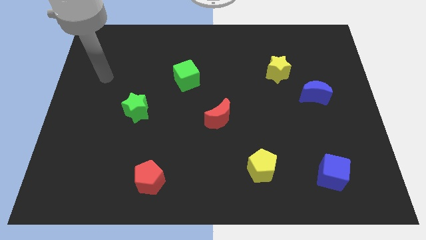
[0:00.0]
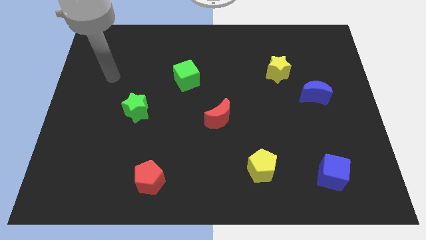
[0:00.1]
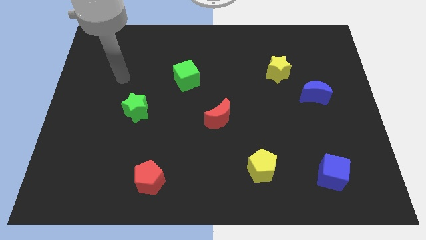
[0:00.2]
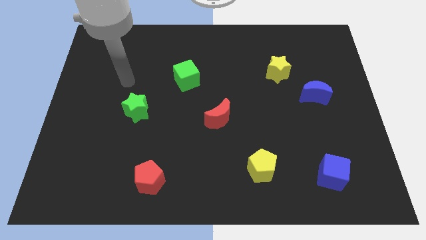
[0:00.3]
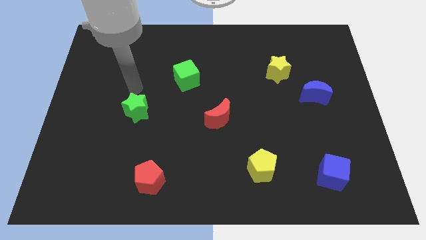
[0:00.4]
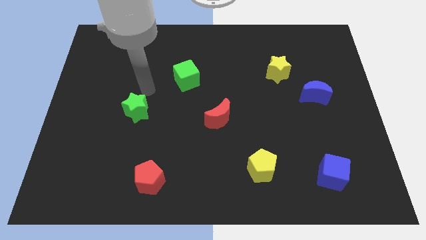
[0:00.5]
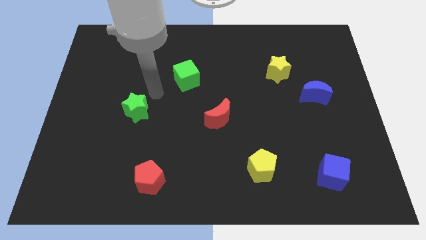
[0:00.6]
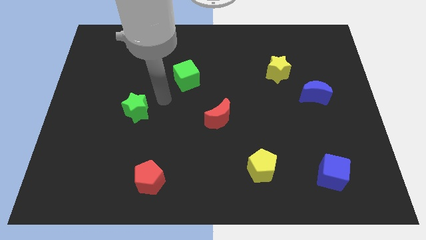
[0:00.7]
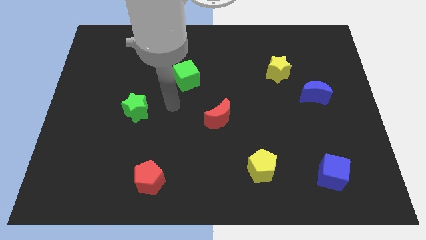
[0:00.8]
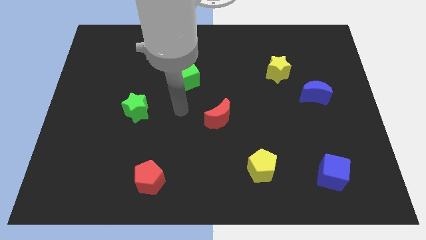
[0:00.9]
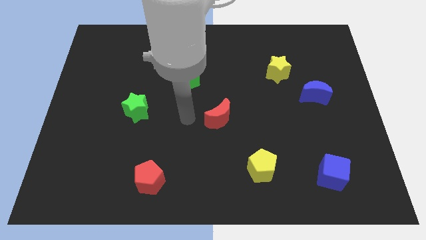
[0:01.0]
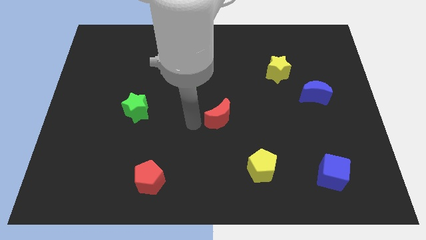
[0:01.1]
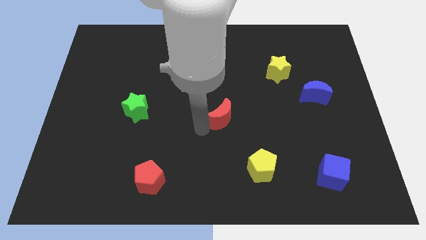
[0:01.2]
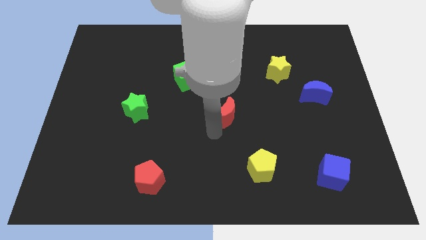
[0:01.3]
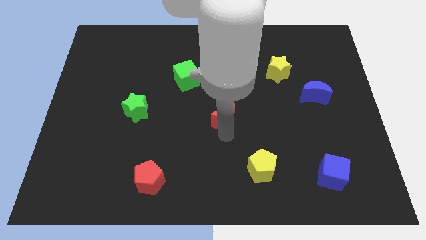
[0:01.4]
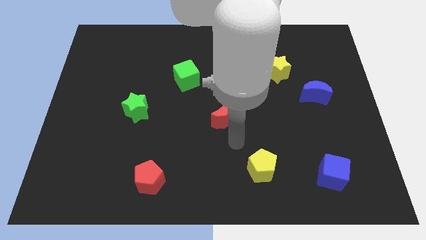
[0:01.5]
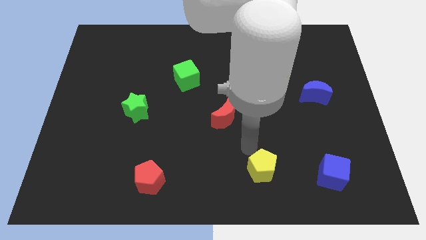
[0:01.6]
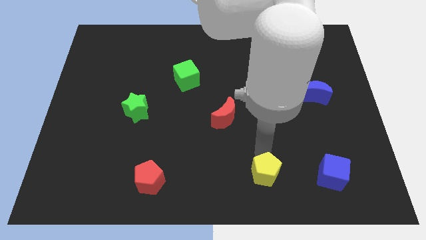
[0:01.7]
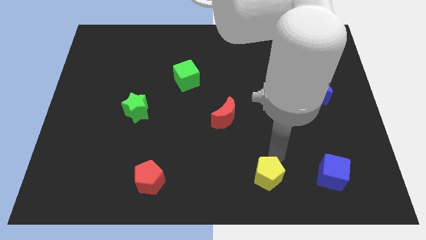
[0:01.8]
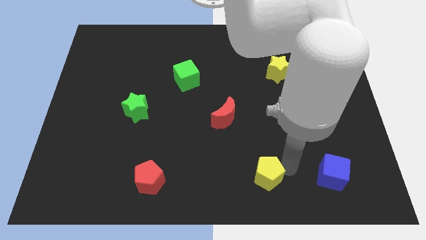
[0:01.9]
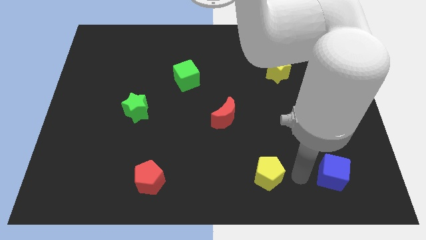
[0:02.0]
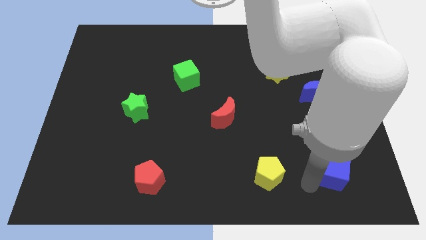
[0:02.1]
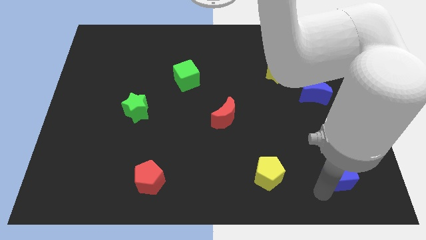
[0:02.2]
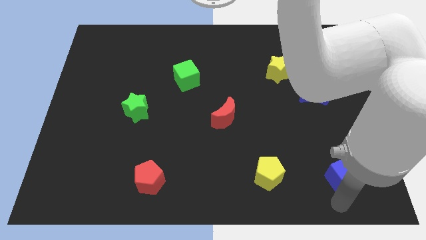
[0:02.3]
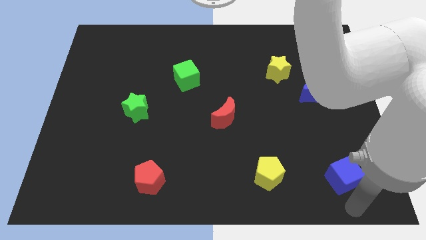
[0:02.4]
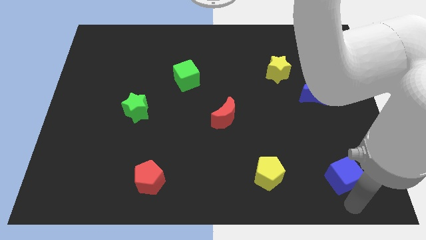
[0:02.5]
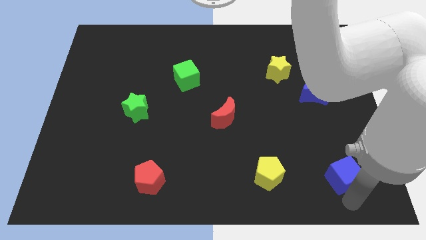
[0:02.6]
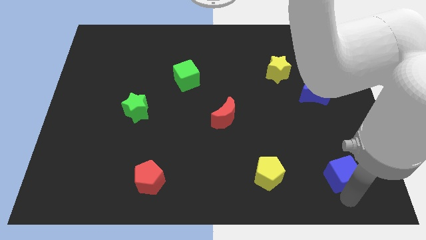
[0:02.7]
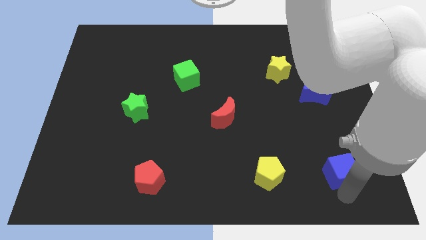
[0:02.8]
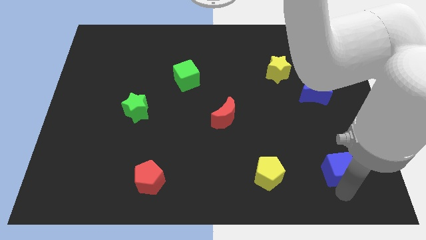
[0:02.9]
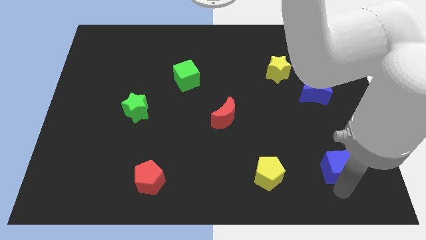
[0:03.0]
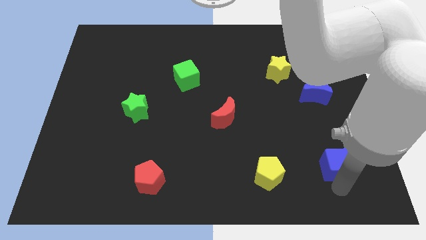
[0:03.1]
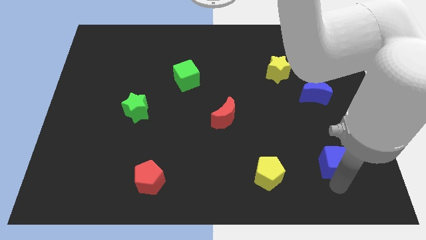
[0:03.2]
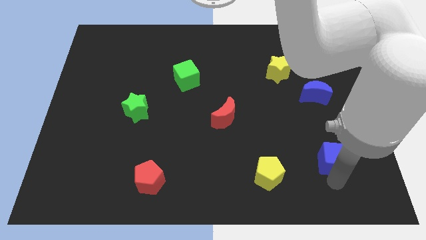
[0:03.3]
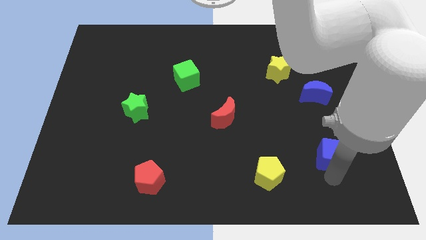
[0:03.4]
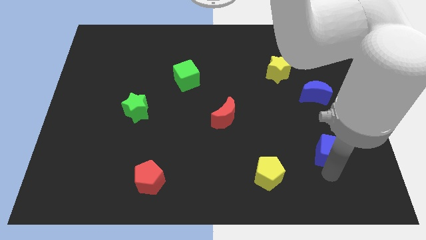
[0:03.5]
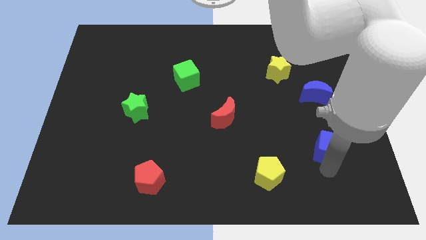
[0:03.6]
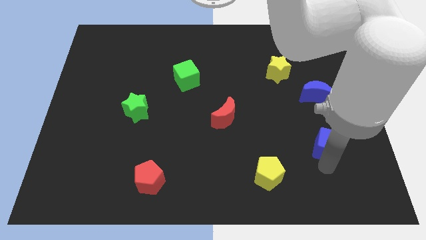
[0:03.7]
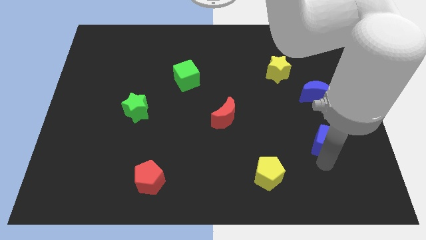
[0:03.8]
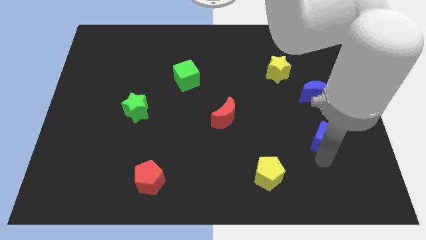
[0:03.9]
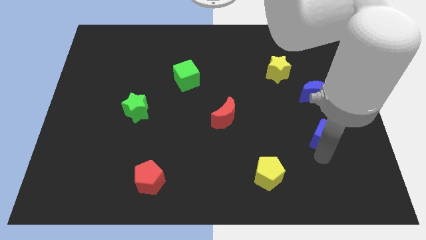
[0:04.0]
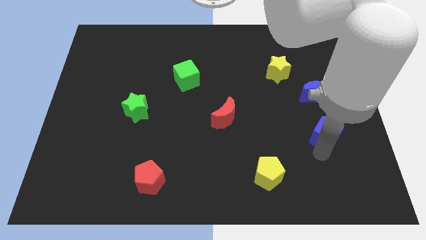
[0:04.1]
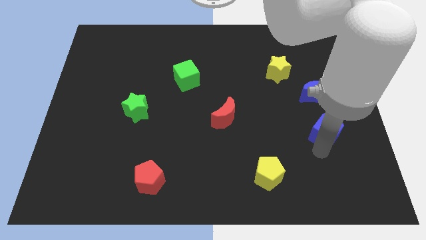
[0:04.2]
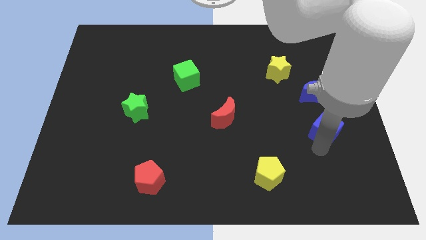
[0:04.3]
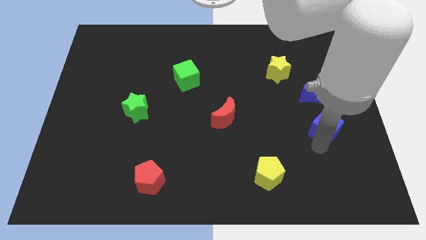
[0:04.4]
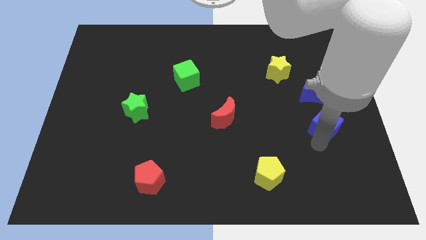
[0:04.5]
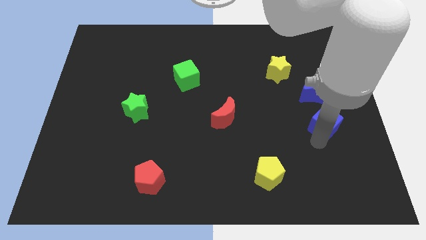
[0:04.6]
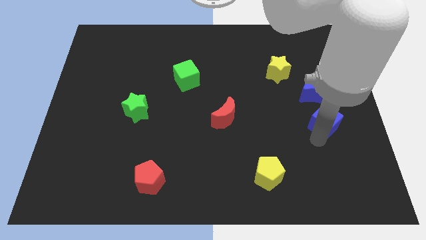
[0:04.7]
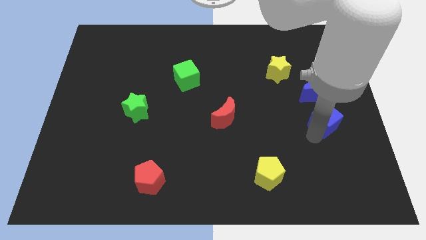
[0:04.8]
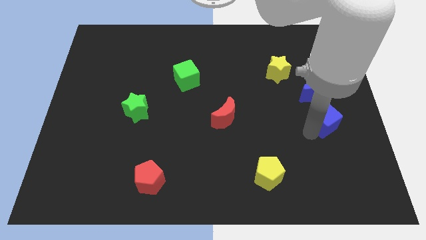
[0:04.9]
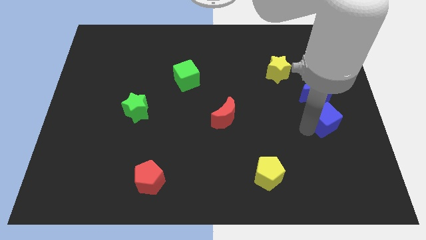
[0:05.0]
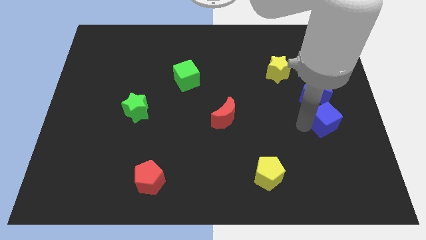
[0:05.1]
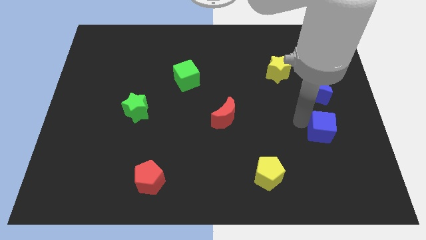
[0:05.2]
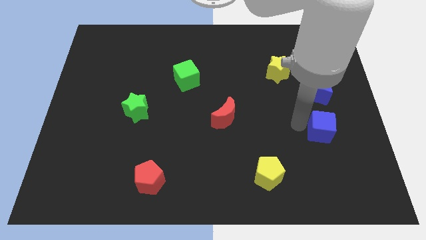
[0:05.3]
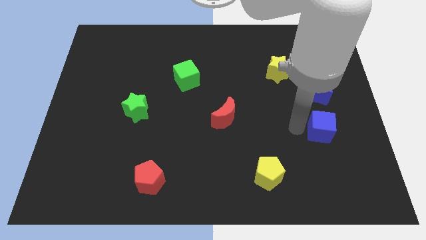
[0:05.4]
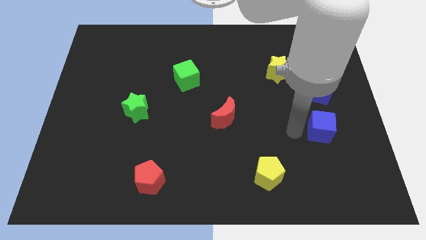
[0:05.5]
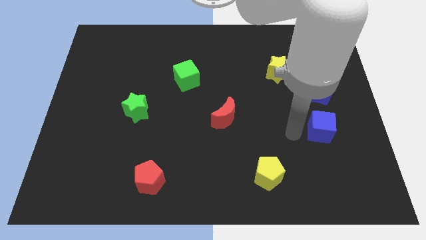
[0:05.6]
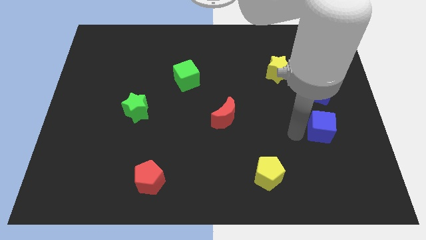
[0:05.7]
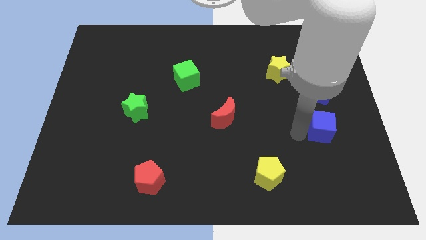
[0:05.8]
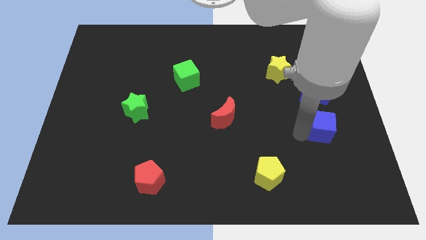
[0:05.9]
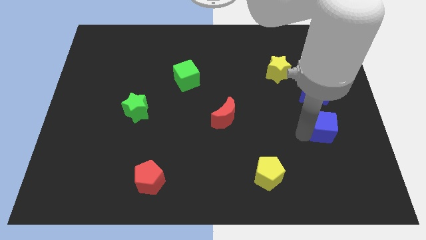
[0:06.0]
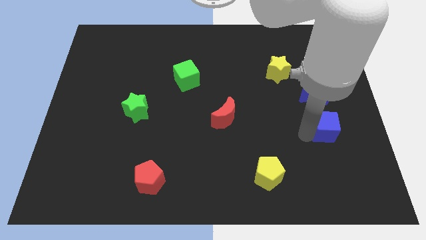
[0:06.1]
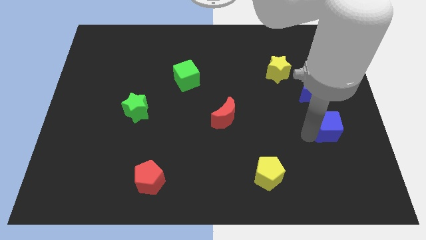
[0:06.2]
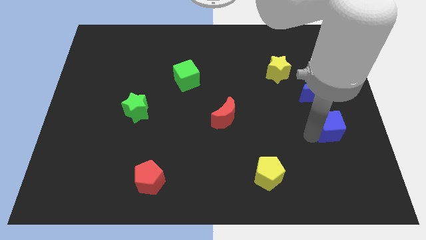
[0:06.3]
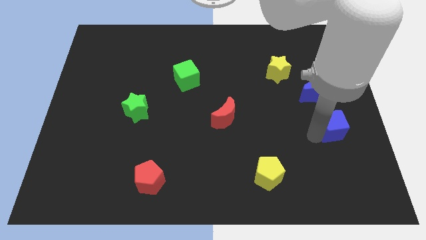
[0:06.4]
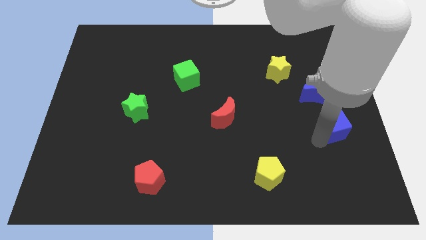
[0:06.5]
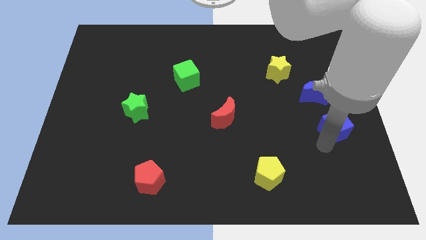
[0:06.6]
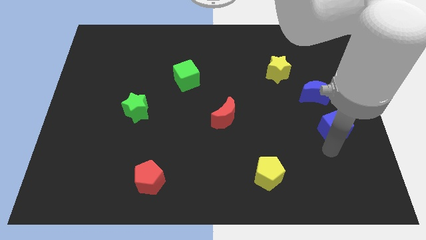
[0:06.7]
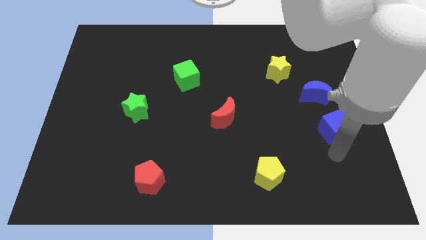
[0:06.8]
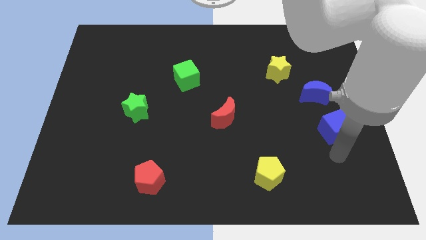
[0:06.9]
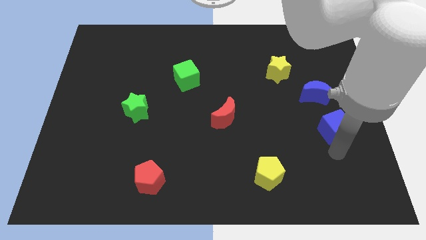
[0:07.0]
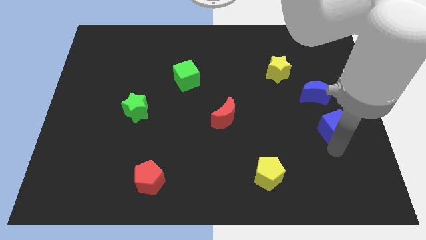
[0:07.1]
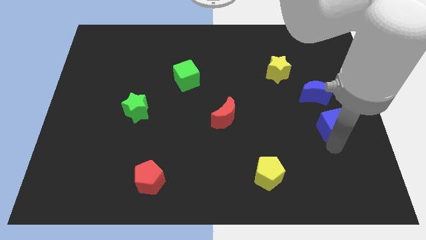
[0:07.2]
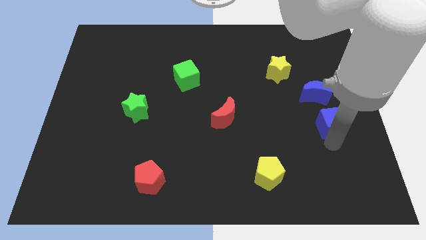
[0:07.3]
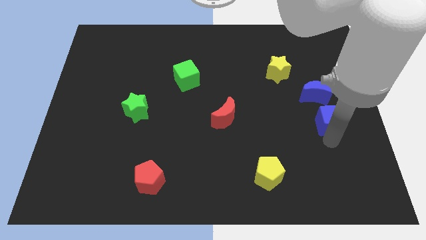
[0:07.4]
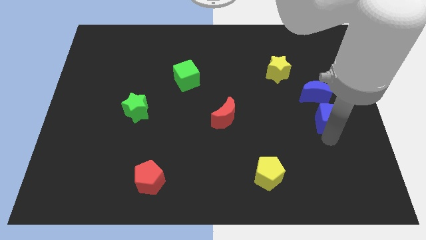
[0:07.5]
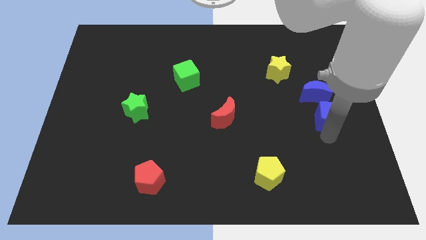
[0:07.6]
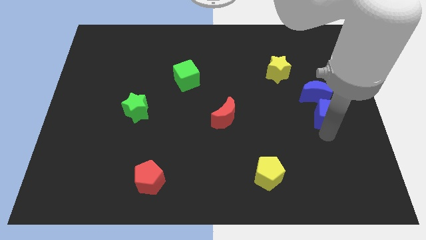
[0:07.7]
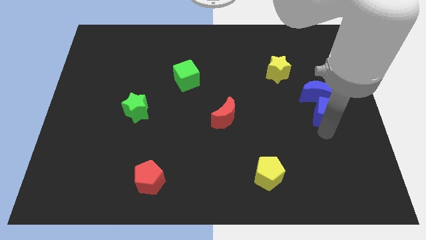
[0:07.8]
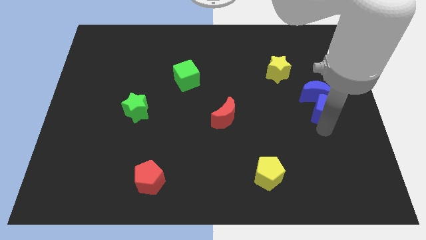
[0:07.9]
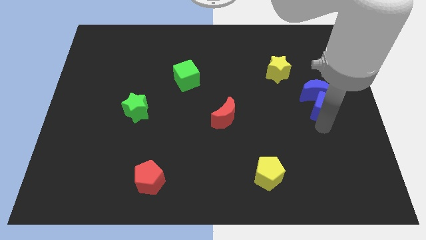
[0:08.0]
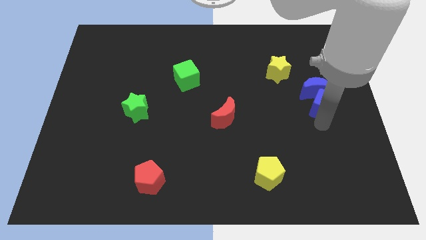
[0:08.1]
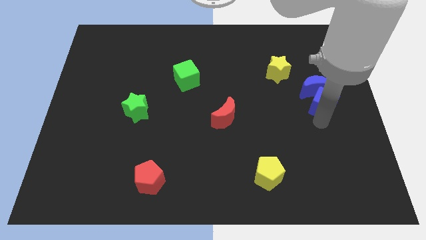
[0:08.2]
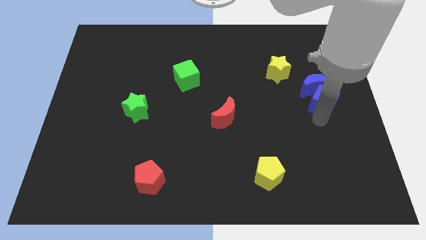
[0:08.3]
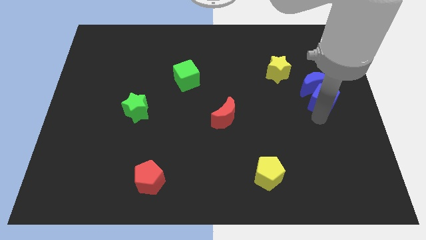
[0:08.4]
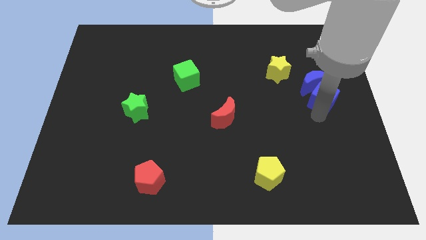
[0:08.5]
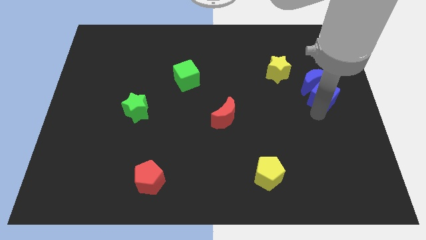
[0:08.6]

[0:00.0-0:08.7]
push the blue cube upwards
